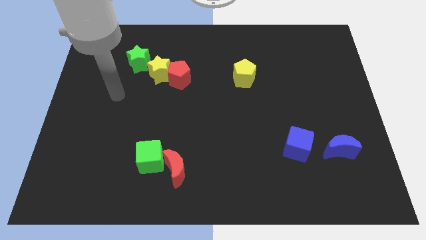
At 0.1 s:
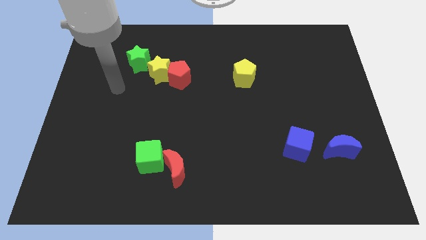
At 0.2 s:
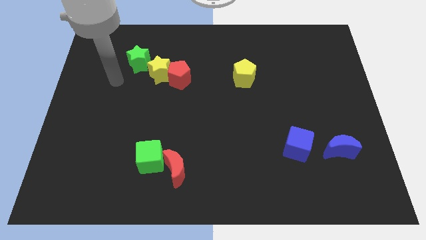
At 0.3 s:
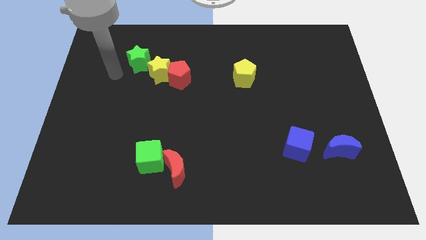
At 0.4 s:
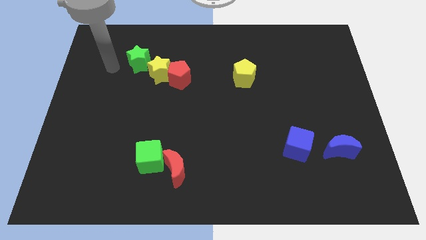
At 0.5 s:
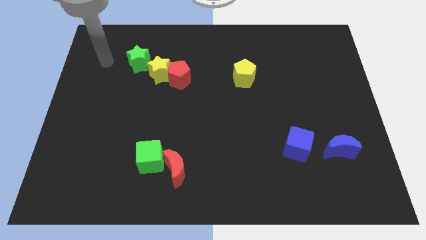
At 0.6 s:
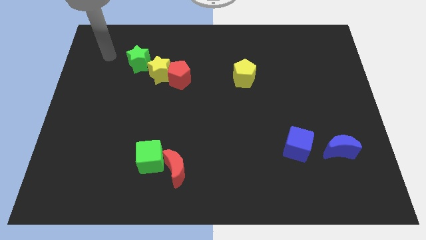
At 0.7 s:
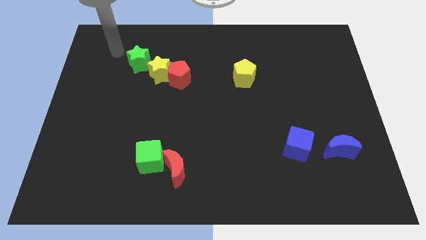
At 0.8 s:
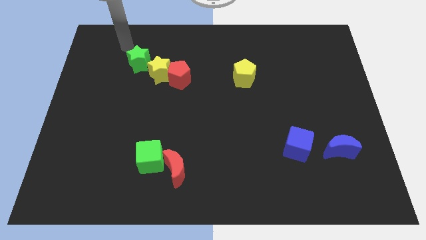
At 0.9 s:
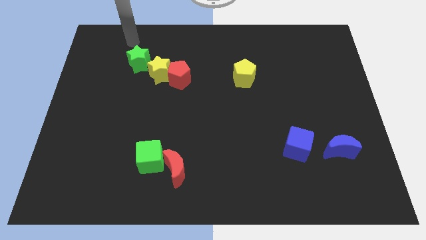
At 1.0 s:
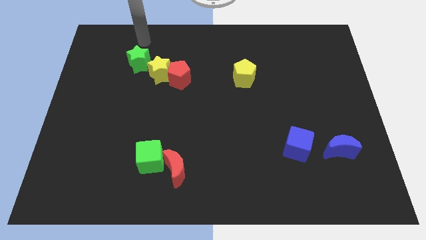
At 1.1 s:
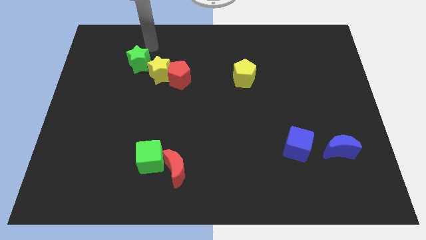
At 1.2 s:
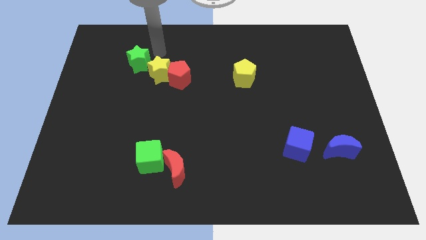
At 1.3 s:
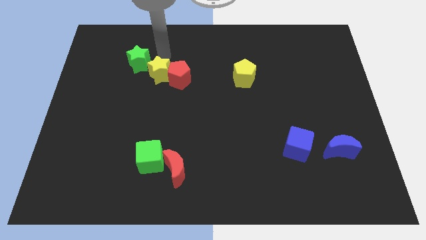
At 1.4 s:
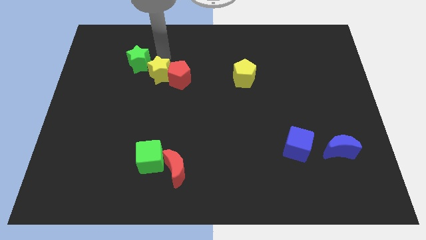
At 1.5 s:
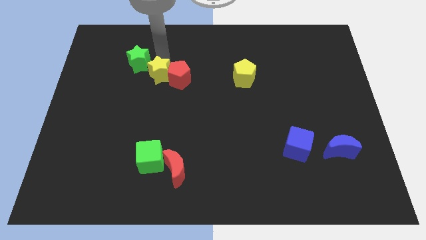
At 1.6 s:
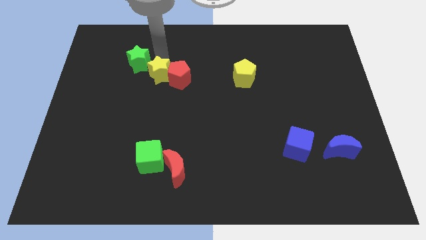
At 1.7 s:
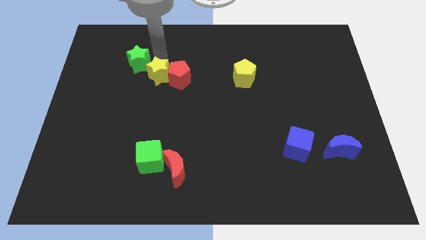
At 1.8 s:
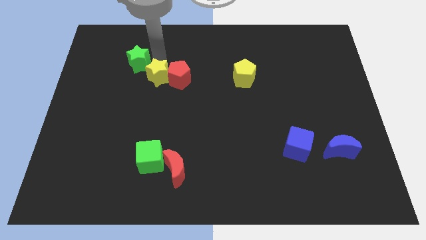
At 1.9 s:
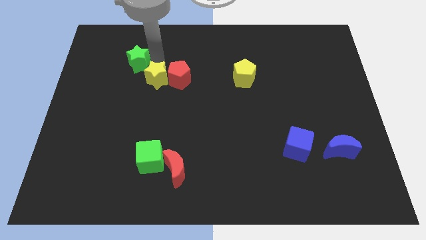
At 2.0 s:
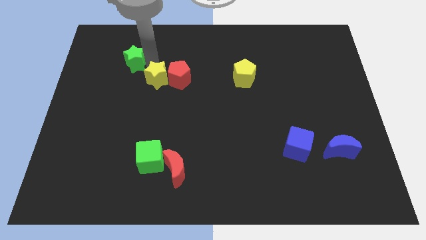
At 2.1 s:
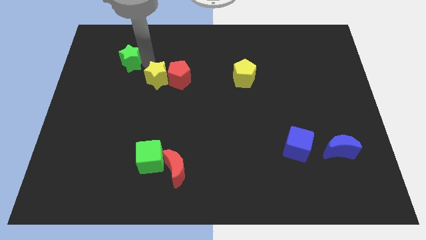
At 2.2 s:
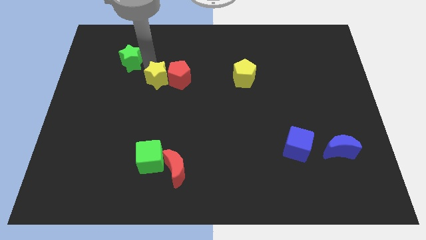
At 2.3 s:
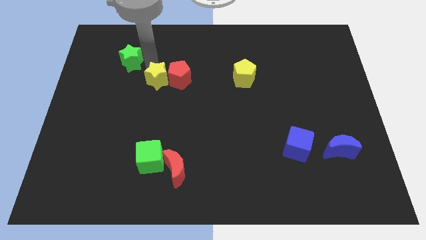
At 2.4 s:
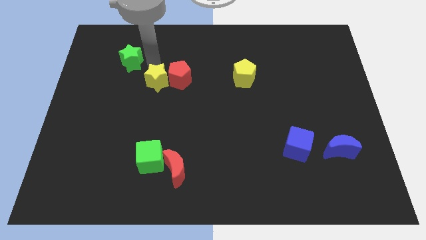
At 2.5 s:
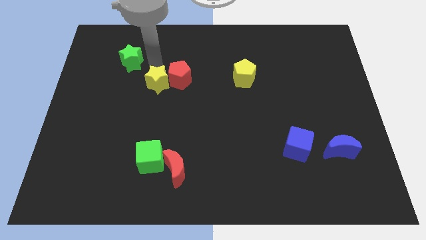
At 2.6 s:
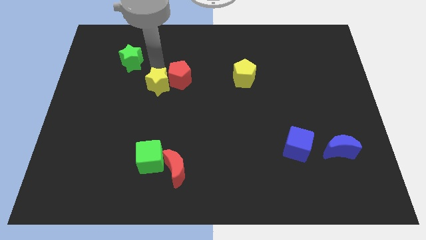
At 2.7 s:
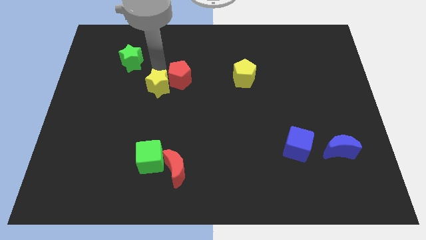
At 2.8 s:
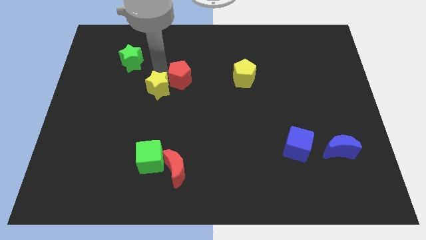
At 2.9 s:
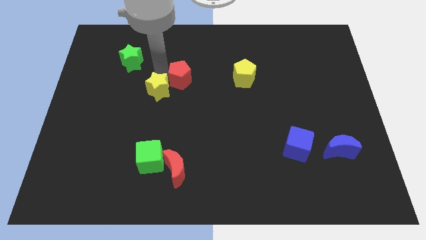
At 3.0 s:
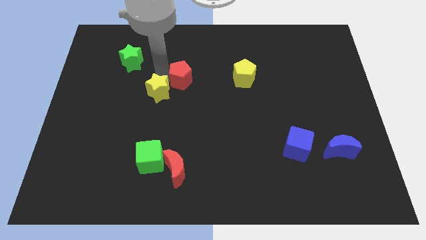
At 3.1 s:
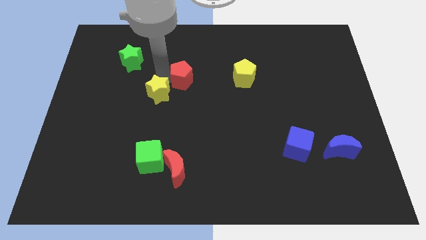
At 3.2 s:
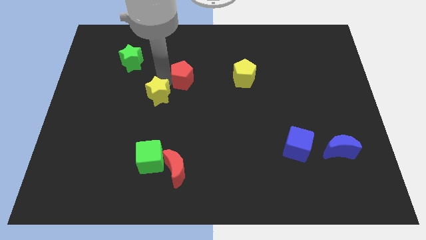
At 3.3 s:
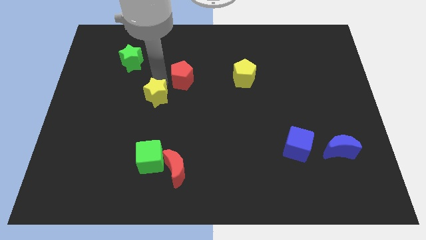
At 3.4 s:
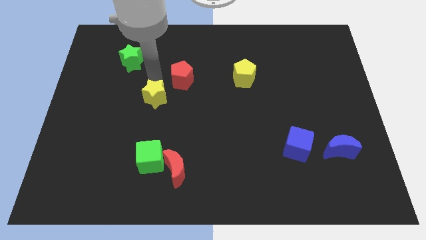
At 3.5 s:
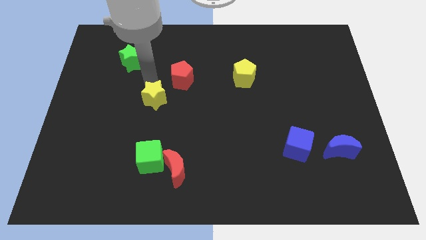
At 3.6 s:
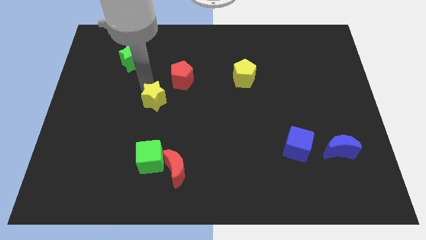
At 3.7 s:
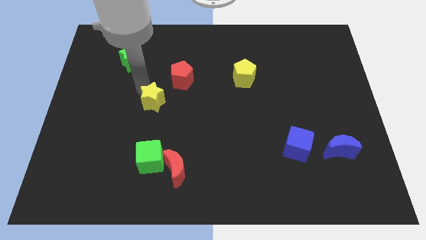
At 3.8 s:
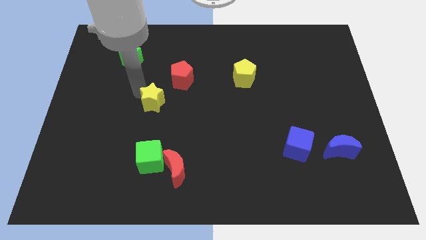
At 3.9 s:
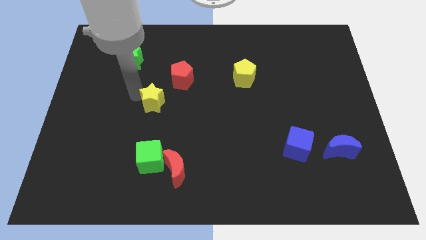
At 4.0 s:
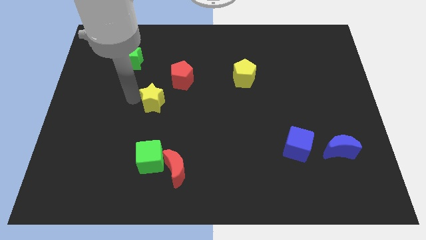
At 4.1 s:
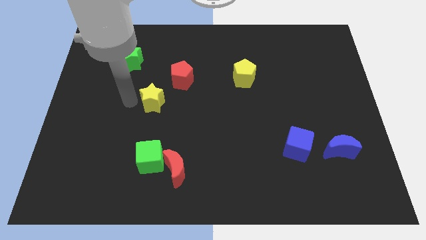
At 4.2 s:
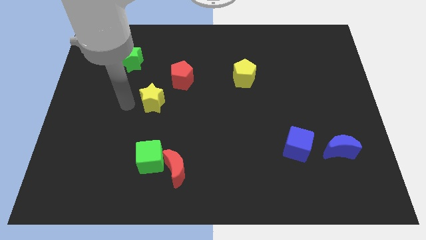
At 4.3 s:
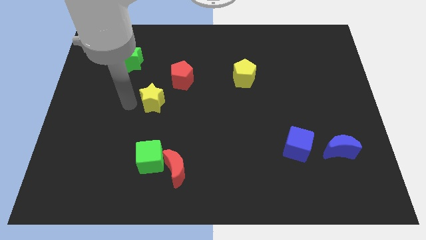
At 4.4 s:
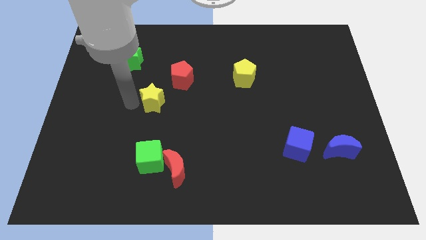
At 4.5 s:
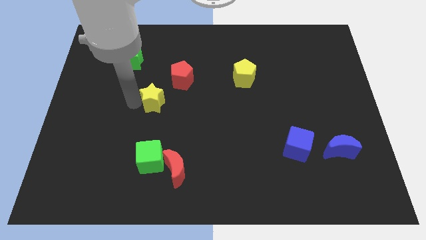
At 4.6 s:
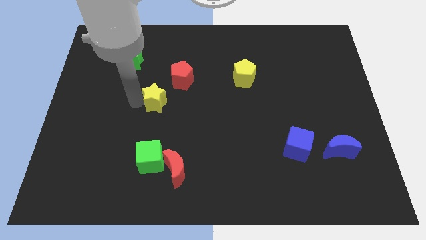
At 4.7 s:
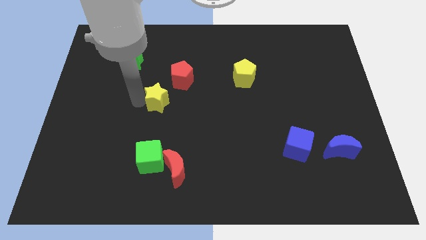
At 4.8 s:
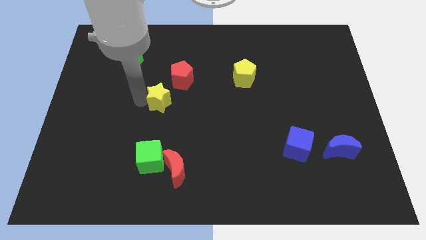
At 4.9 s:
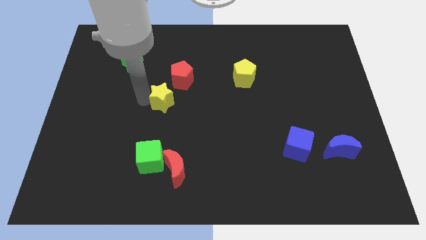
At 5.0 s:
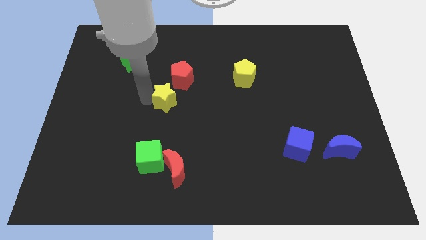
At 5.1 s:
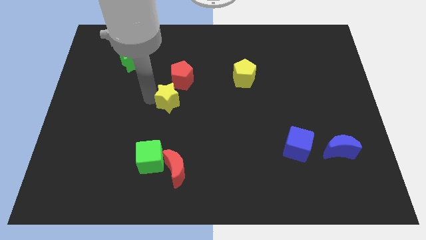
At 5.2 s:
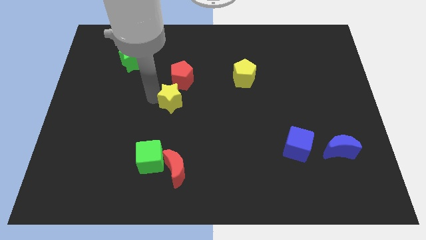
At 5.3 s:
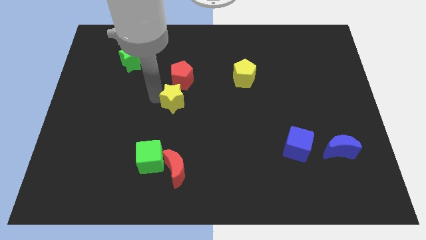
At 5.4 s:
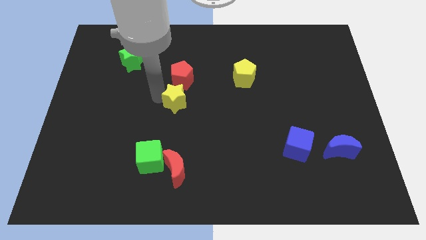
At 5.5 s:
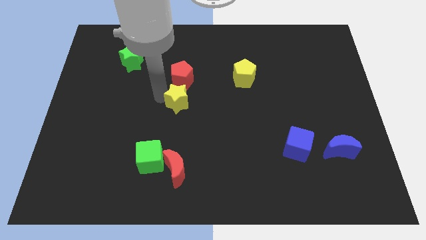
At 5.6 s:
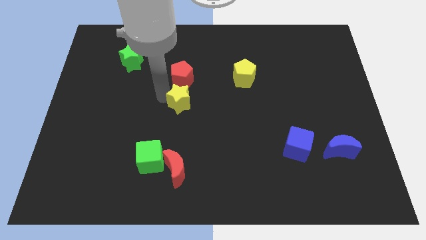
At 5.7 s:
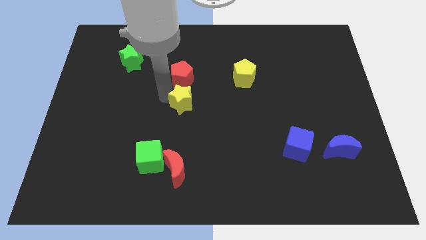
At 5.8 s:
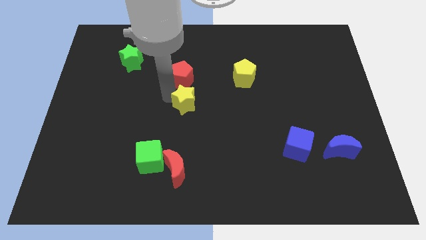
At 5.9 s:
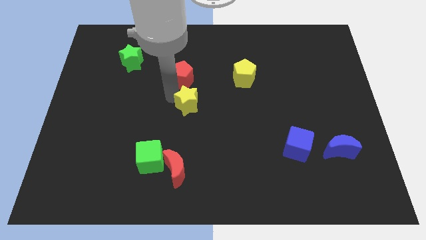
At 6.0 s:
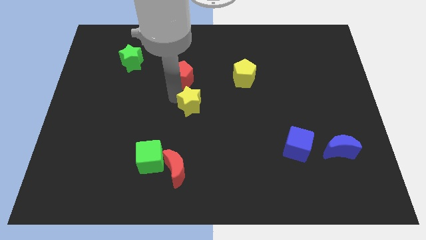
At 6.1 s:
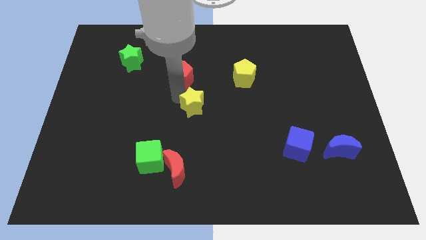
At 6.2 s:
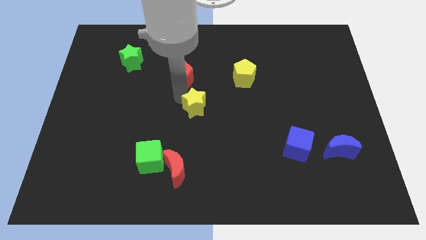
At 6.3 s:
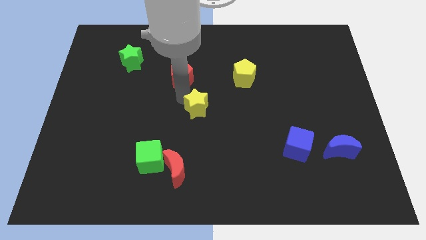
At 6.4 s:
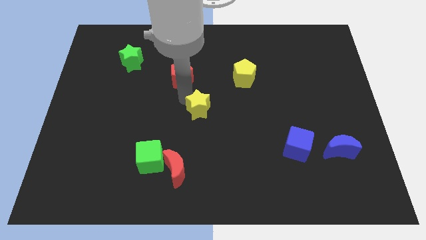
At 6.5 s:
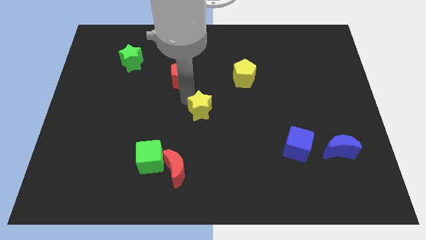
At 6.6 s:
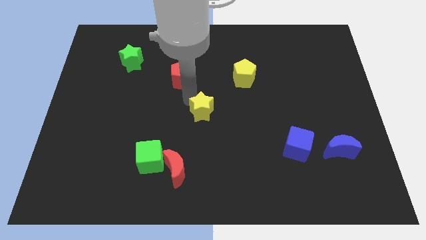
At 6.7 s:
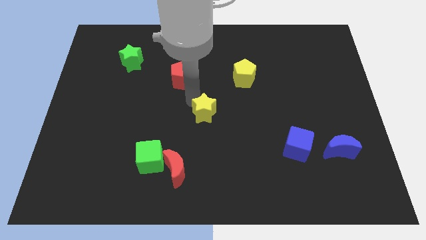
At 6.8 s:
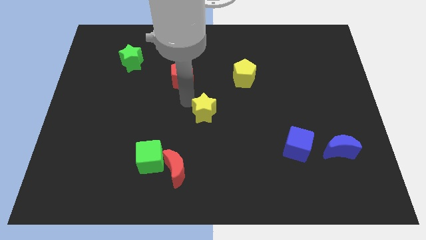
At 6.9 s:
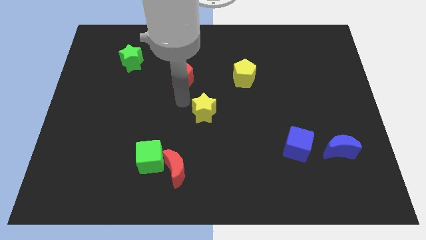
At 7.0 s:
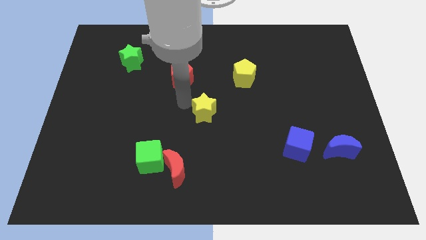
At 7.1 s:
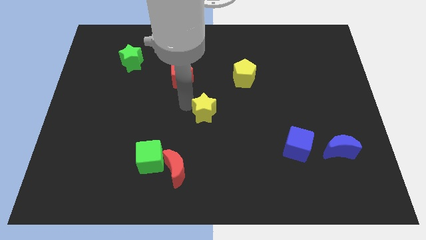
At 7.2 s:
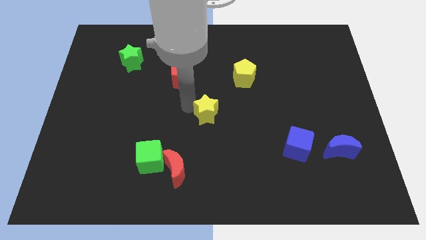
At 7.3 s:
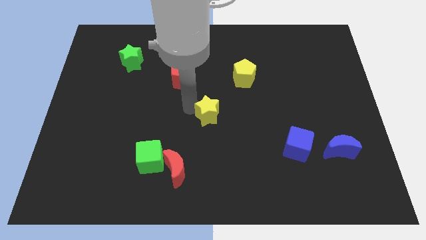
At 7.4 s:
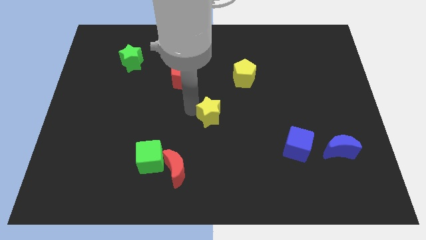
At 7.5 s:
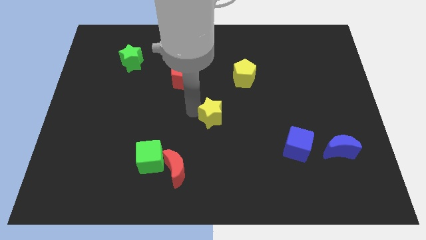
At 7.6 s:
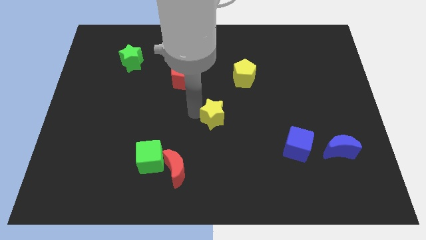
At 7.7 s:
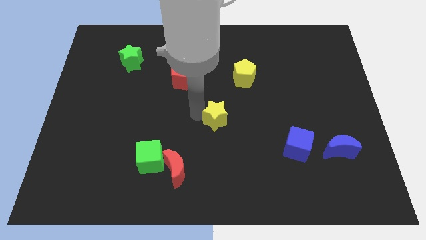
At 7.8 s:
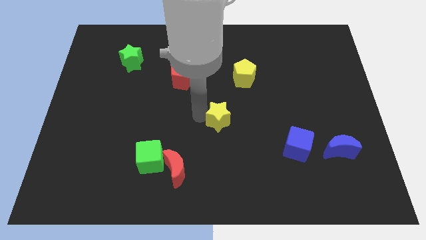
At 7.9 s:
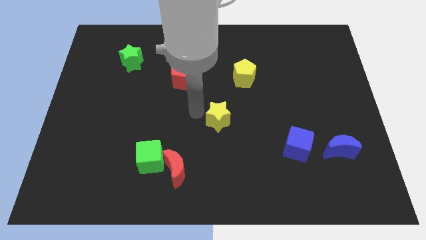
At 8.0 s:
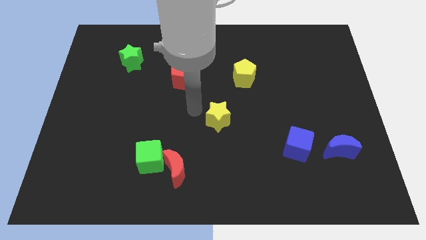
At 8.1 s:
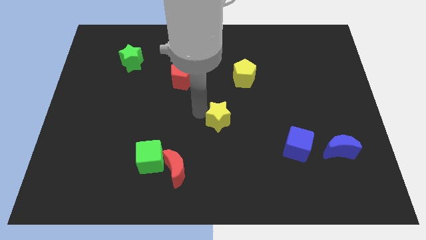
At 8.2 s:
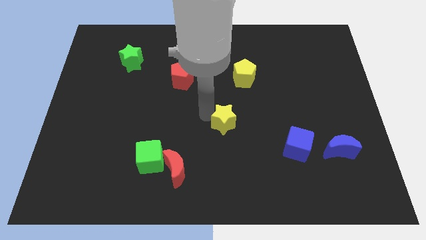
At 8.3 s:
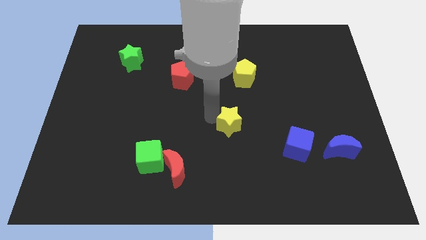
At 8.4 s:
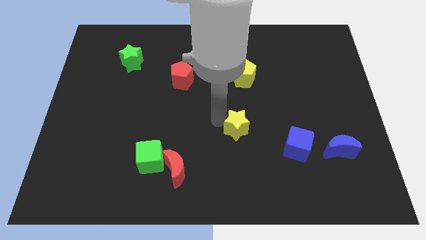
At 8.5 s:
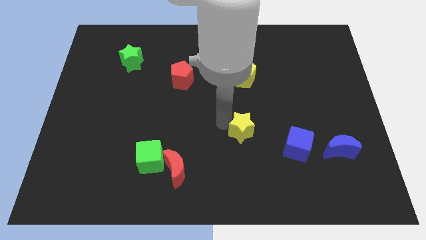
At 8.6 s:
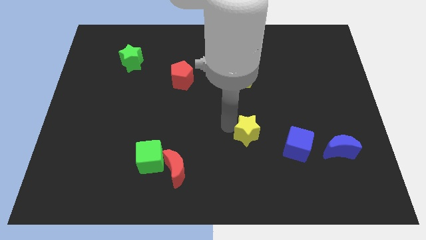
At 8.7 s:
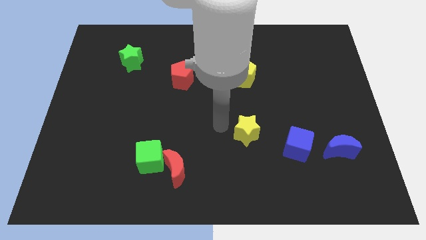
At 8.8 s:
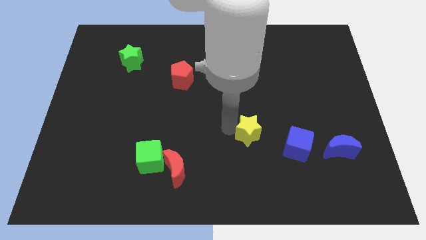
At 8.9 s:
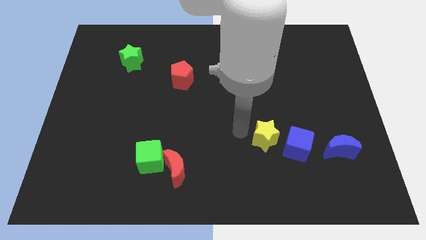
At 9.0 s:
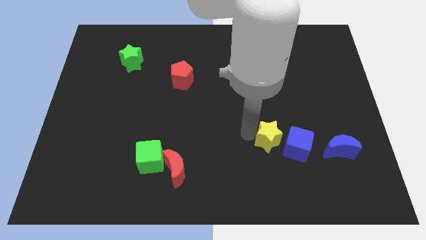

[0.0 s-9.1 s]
slide the yellow star to the blue cube
